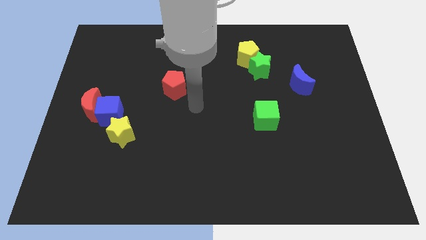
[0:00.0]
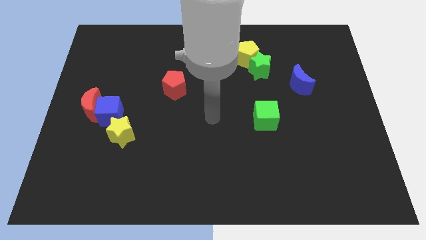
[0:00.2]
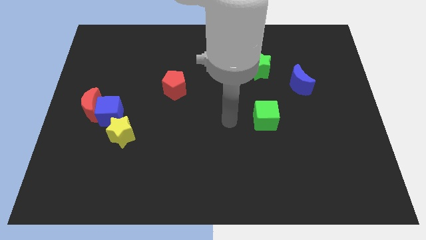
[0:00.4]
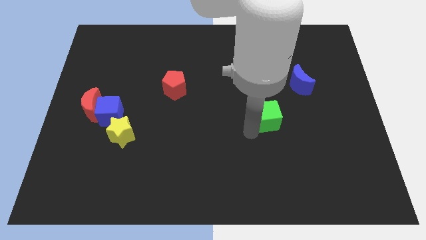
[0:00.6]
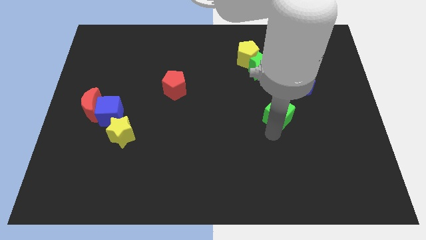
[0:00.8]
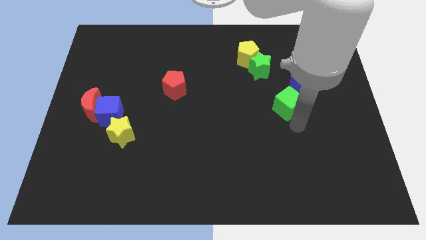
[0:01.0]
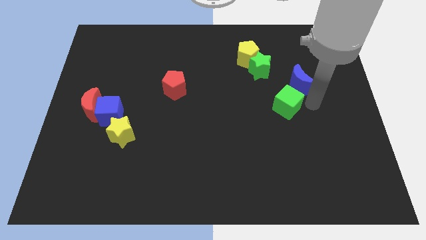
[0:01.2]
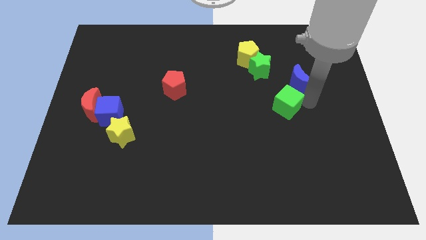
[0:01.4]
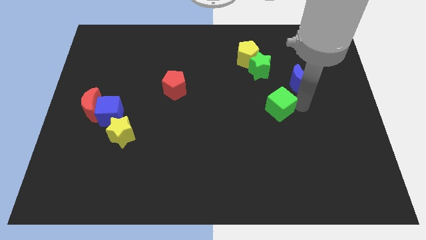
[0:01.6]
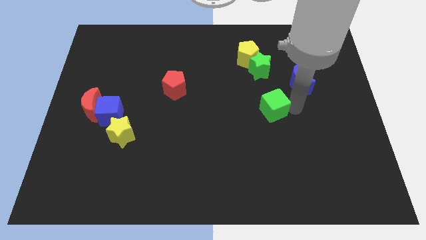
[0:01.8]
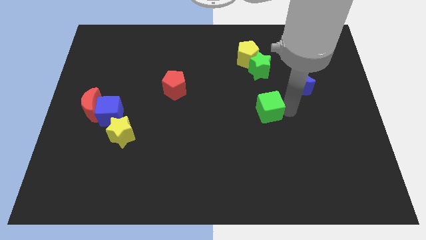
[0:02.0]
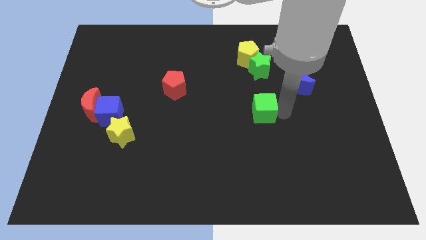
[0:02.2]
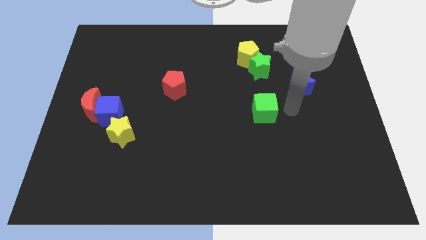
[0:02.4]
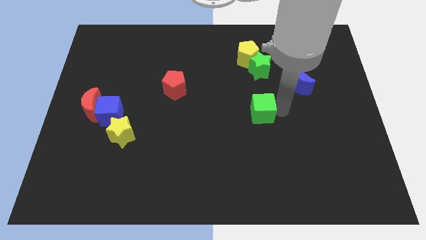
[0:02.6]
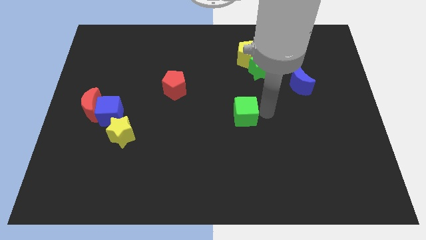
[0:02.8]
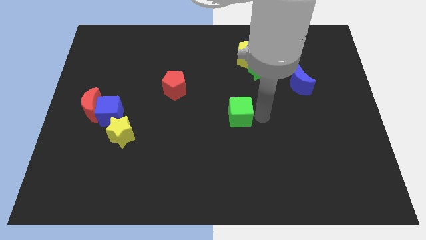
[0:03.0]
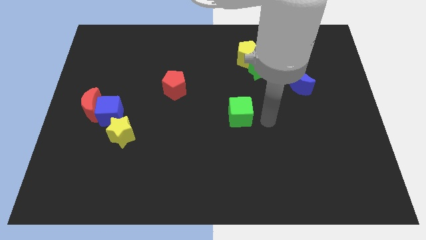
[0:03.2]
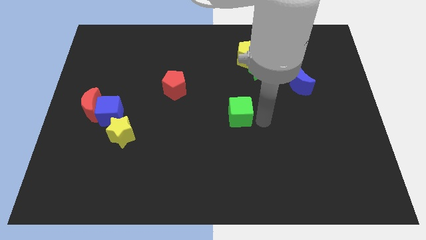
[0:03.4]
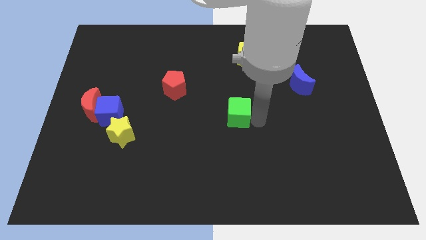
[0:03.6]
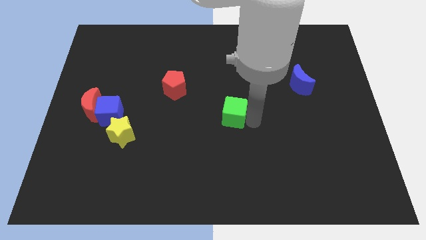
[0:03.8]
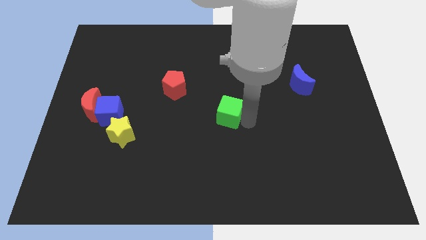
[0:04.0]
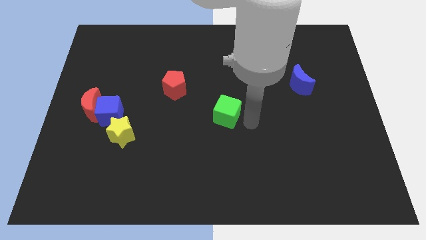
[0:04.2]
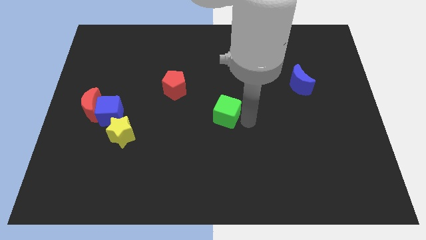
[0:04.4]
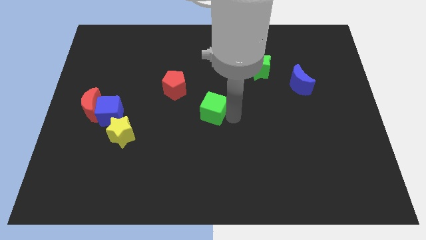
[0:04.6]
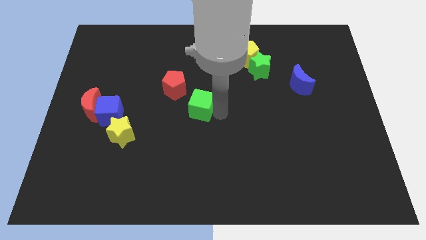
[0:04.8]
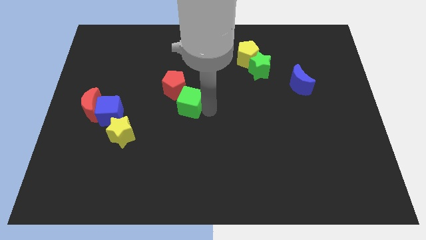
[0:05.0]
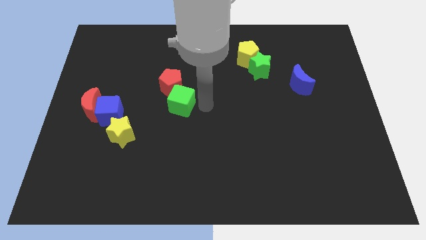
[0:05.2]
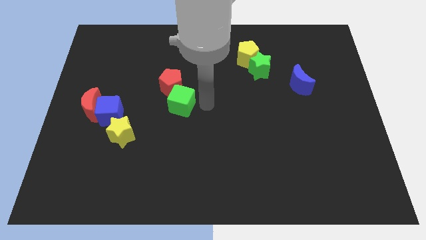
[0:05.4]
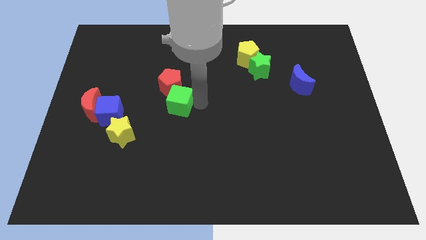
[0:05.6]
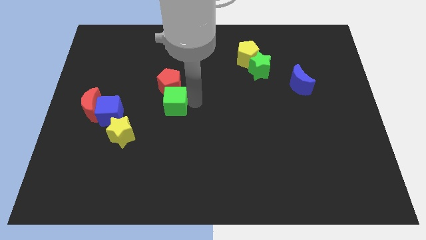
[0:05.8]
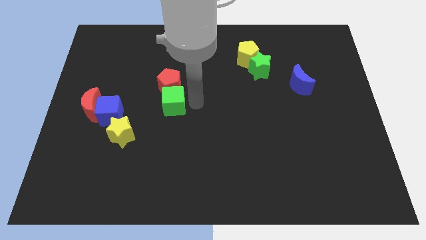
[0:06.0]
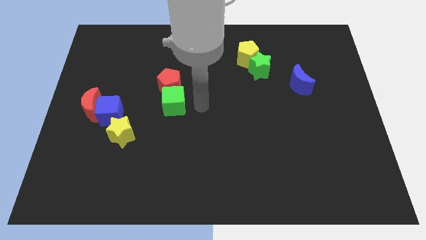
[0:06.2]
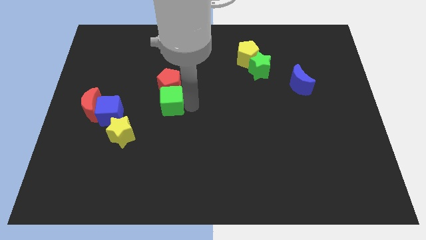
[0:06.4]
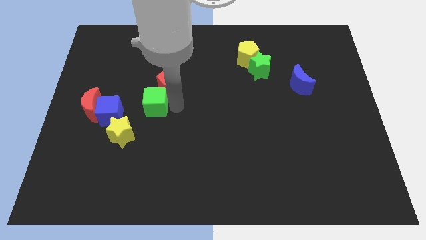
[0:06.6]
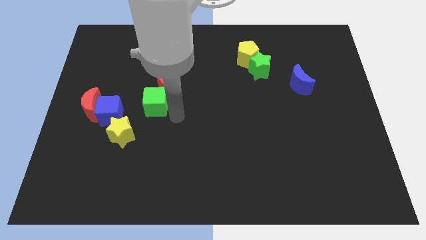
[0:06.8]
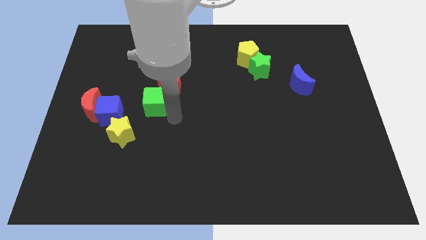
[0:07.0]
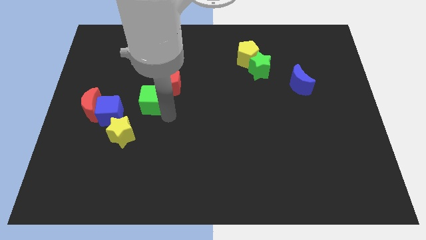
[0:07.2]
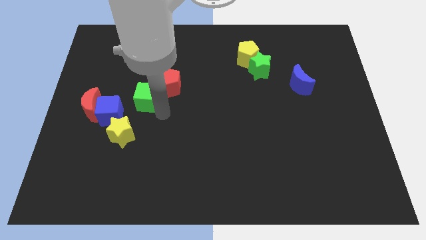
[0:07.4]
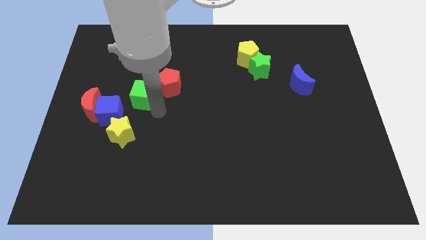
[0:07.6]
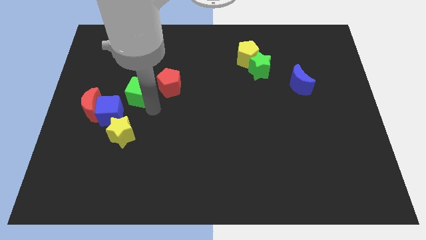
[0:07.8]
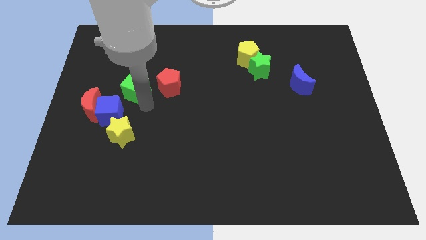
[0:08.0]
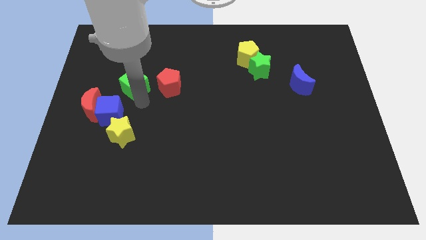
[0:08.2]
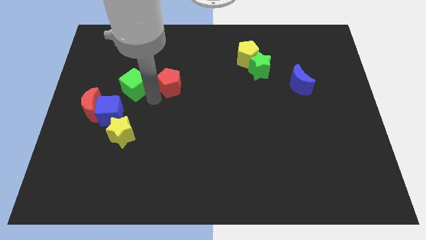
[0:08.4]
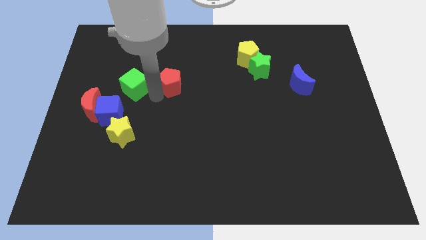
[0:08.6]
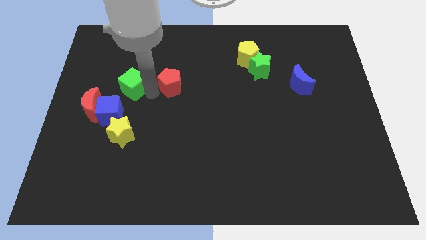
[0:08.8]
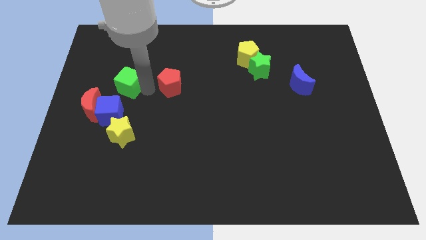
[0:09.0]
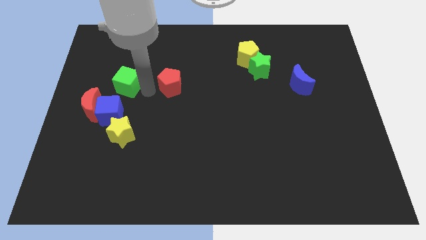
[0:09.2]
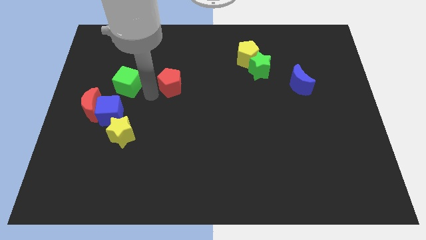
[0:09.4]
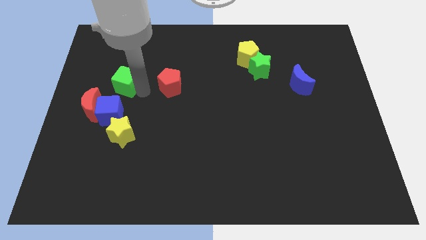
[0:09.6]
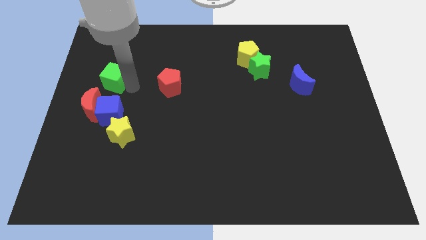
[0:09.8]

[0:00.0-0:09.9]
slide the green cube above the red moon

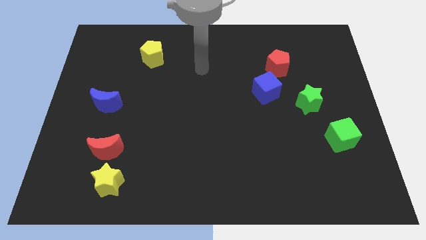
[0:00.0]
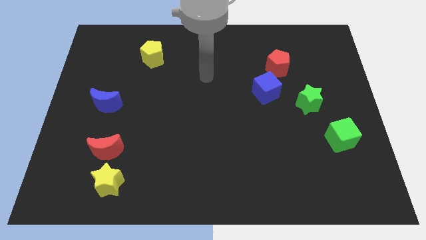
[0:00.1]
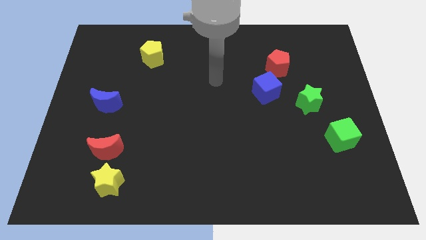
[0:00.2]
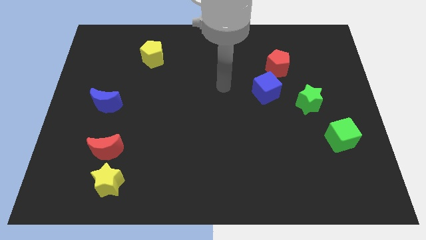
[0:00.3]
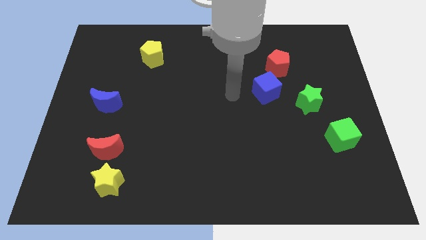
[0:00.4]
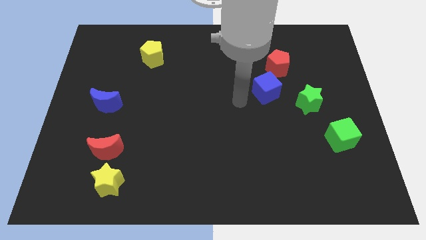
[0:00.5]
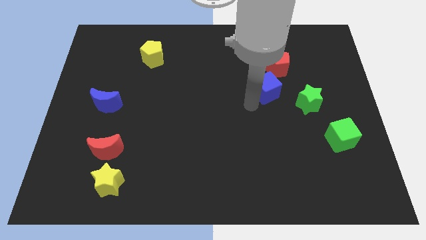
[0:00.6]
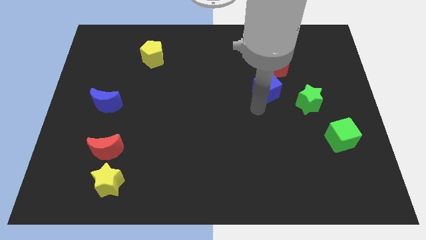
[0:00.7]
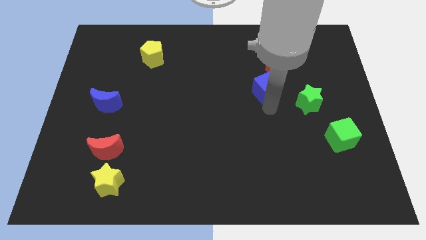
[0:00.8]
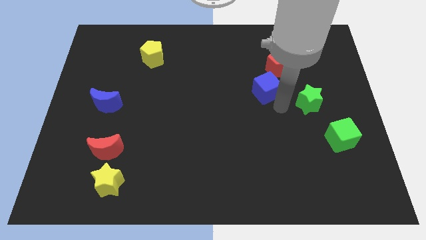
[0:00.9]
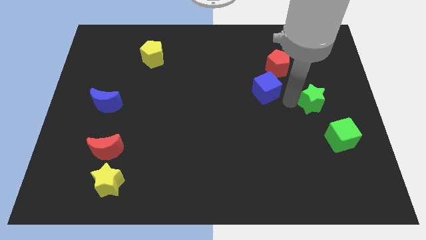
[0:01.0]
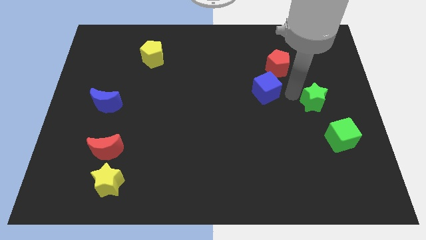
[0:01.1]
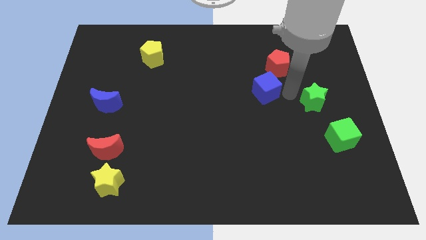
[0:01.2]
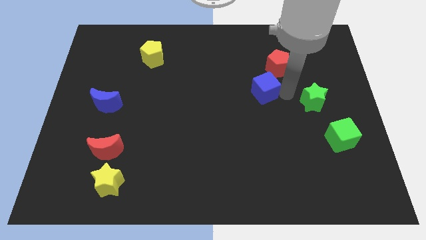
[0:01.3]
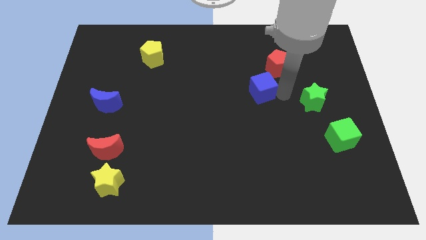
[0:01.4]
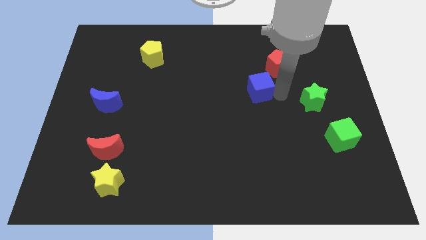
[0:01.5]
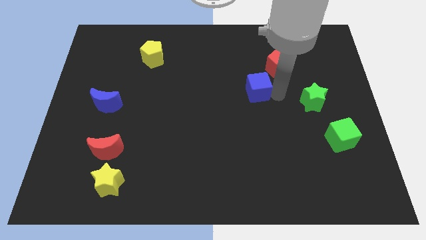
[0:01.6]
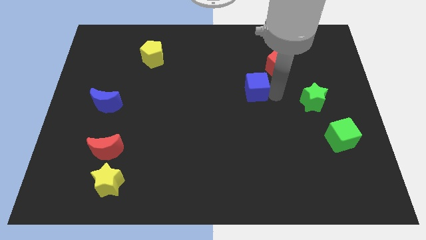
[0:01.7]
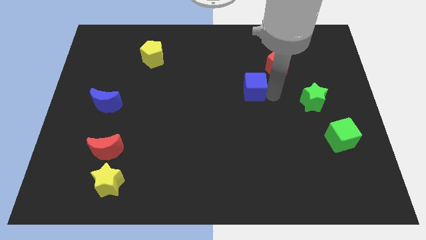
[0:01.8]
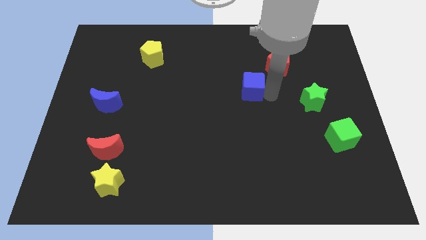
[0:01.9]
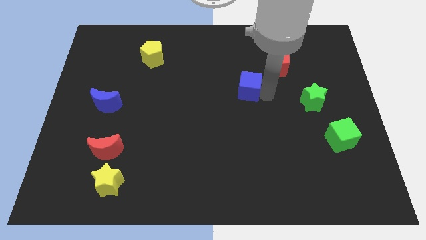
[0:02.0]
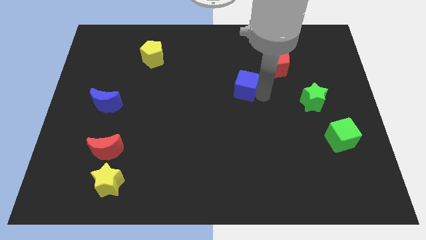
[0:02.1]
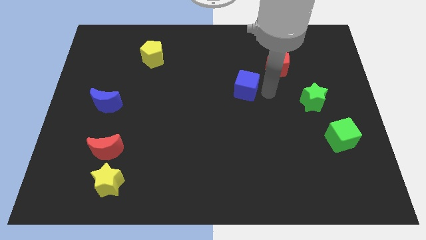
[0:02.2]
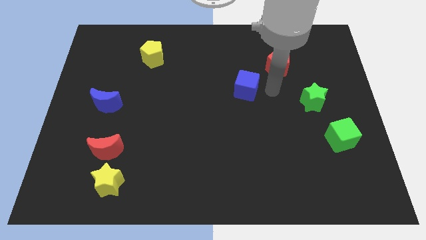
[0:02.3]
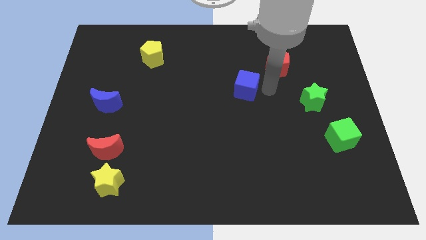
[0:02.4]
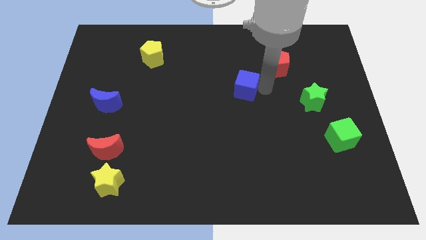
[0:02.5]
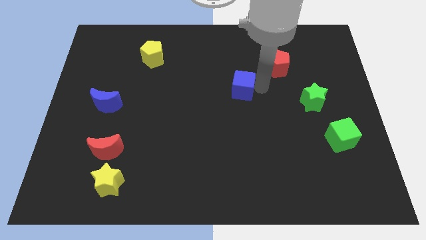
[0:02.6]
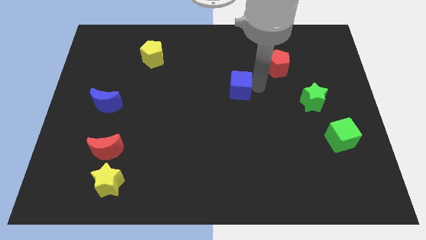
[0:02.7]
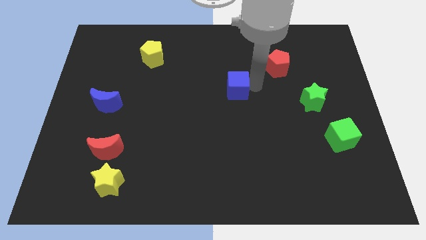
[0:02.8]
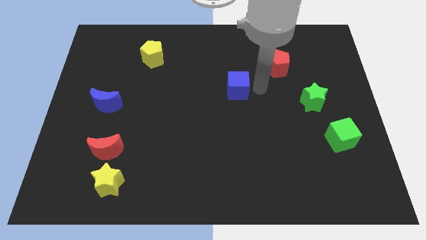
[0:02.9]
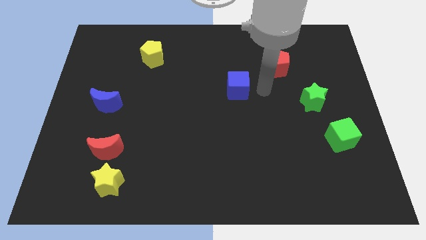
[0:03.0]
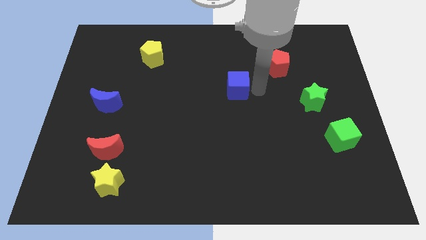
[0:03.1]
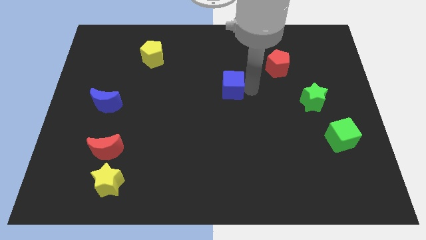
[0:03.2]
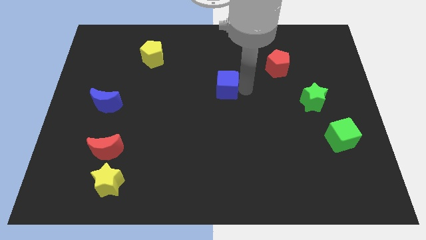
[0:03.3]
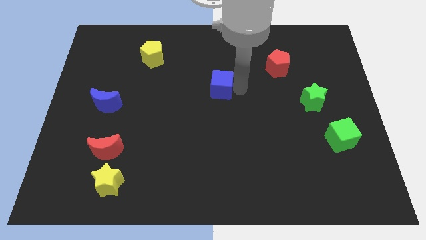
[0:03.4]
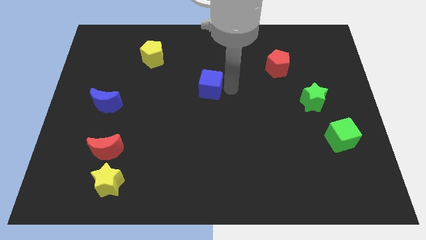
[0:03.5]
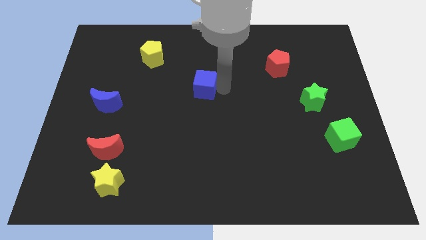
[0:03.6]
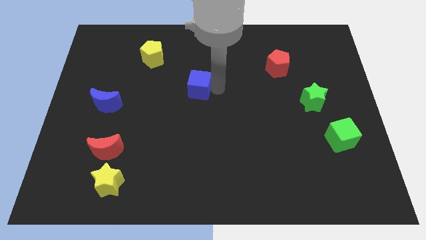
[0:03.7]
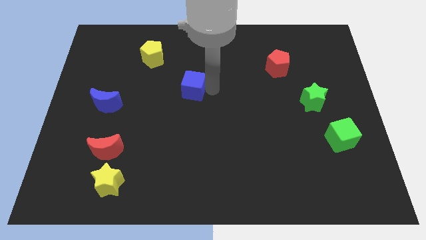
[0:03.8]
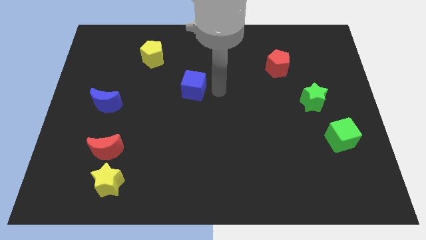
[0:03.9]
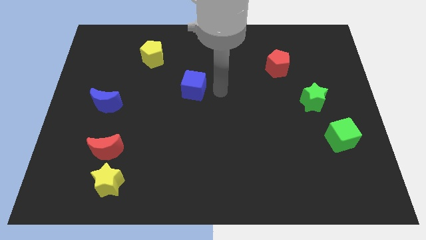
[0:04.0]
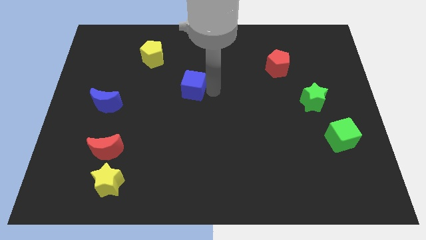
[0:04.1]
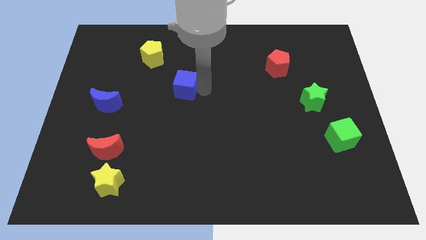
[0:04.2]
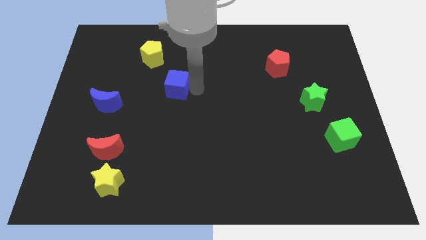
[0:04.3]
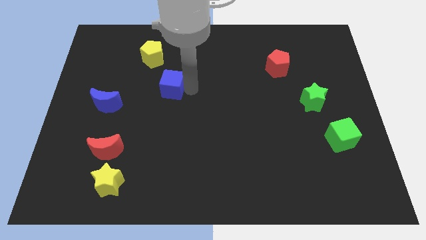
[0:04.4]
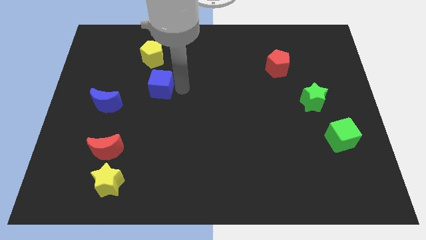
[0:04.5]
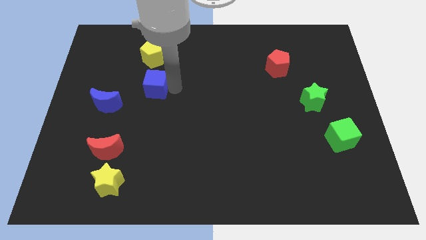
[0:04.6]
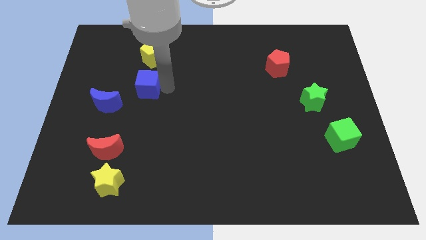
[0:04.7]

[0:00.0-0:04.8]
slide the blue cube to the top right side of the blue moon
